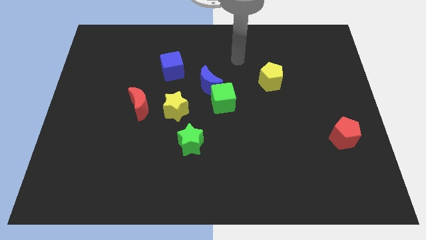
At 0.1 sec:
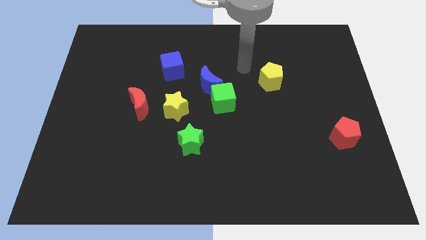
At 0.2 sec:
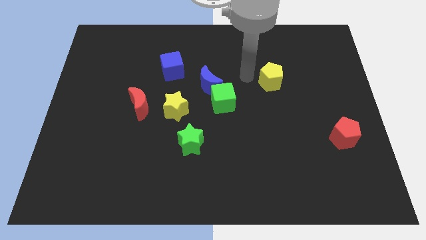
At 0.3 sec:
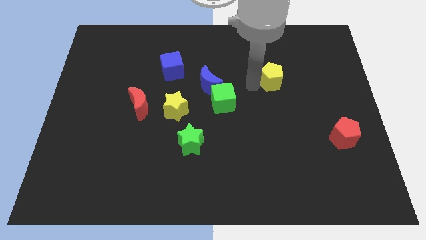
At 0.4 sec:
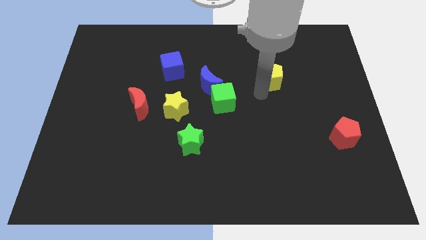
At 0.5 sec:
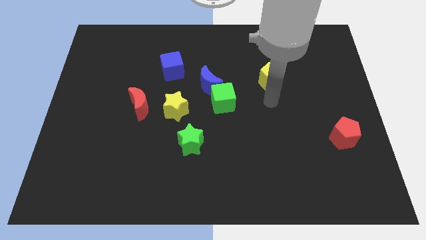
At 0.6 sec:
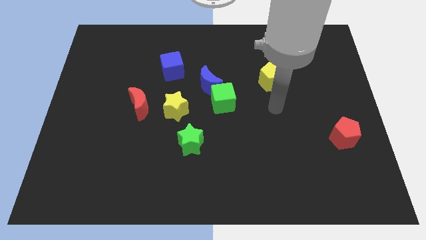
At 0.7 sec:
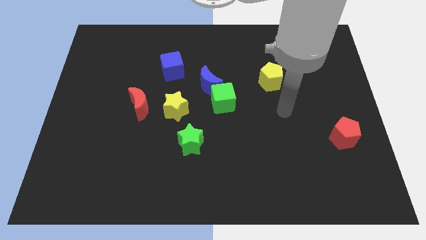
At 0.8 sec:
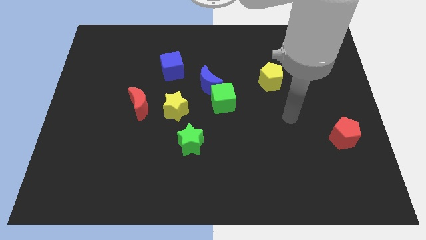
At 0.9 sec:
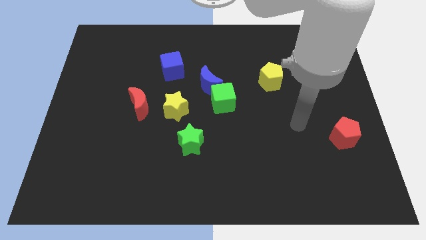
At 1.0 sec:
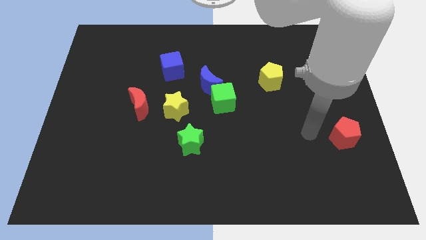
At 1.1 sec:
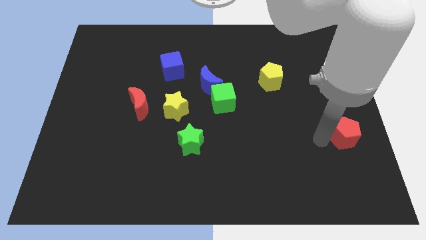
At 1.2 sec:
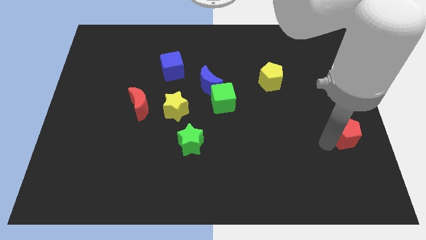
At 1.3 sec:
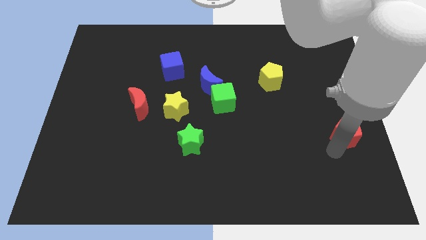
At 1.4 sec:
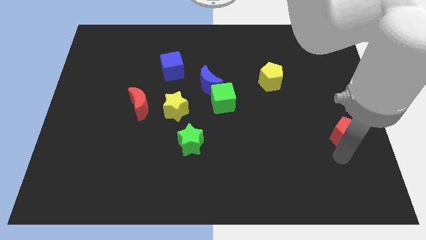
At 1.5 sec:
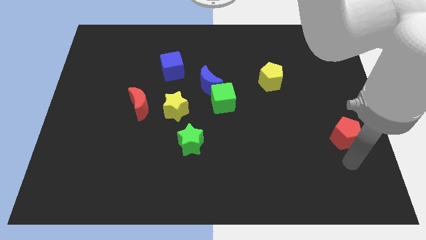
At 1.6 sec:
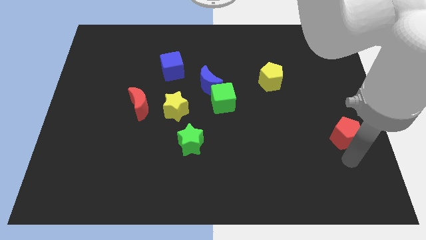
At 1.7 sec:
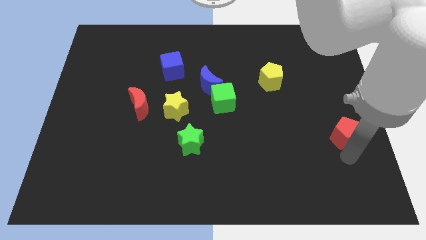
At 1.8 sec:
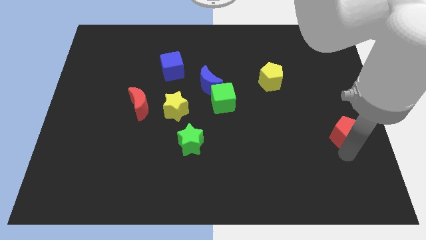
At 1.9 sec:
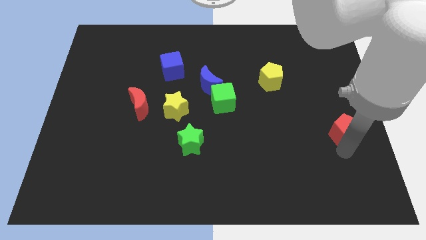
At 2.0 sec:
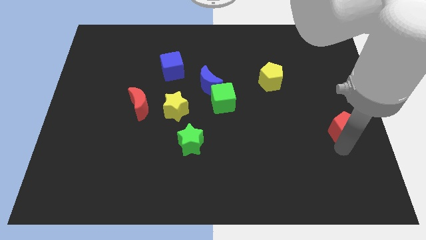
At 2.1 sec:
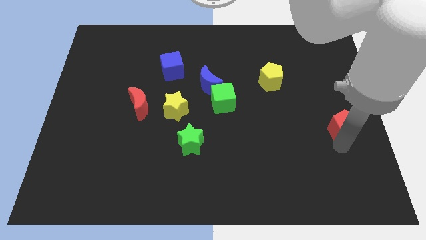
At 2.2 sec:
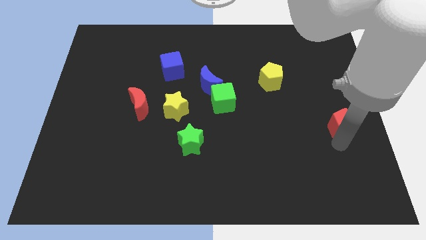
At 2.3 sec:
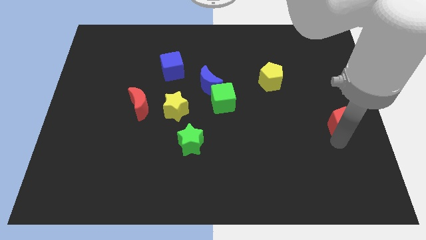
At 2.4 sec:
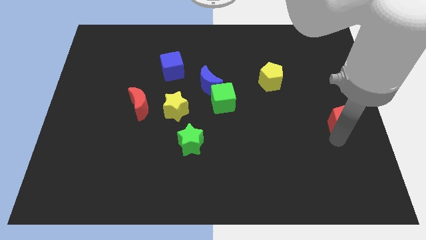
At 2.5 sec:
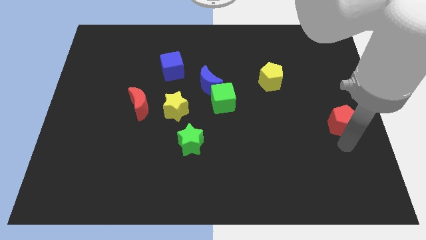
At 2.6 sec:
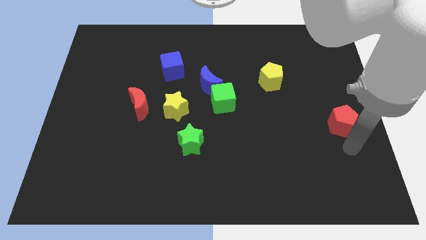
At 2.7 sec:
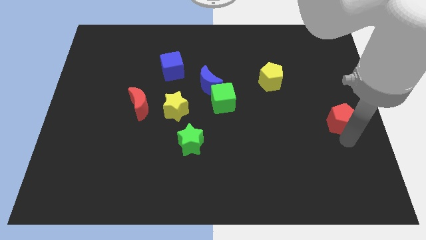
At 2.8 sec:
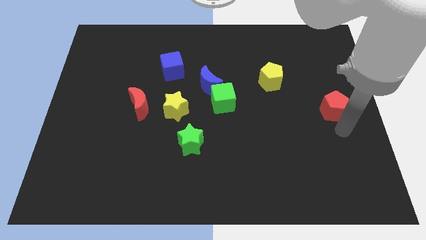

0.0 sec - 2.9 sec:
move the red pentagon a little up

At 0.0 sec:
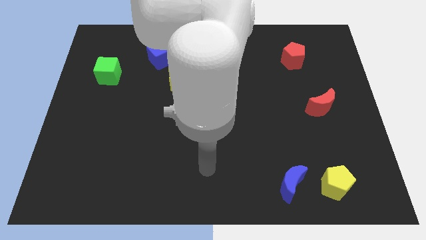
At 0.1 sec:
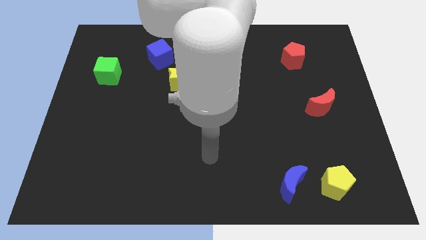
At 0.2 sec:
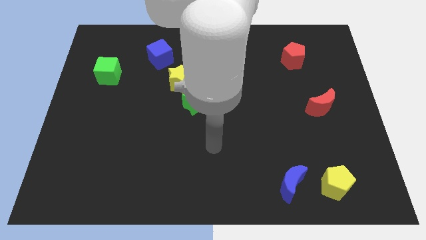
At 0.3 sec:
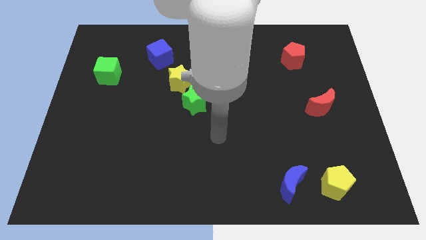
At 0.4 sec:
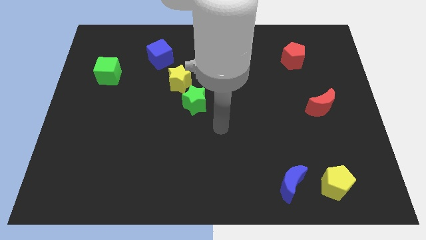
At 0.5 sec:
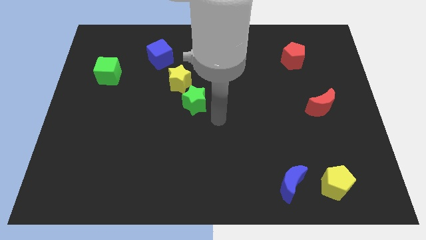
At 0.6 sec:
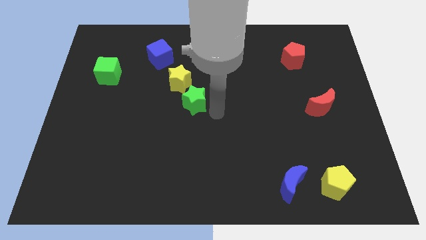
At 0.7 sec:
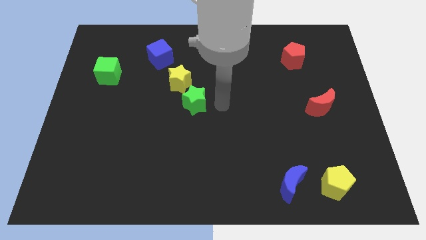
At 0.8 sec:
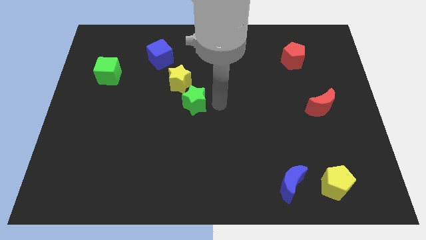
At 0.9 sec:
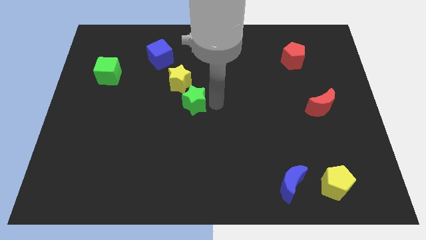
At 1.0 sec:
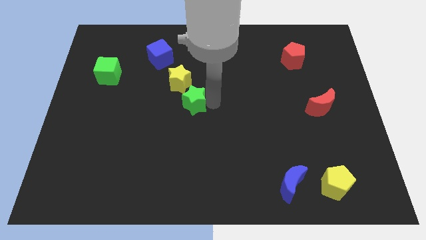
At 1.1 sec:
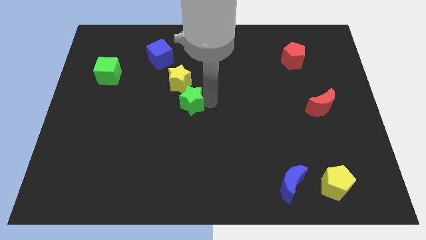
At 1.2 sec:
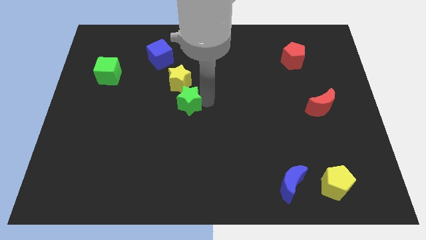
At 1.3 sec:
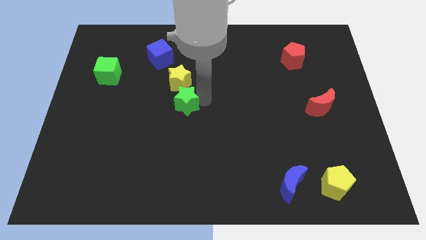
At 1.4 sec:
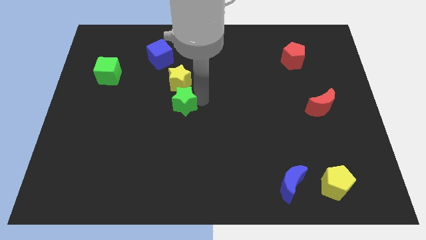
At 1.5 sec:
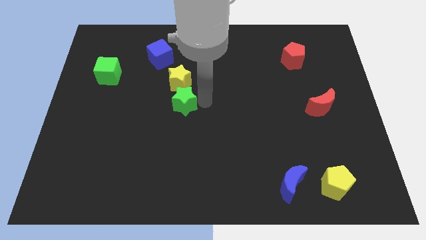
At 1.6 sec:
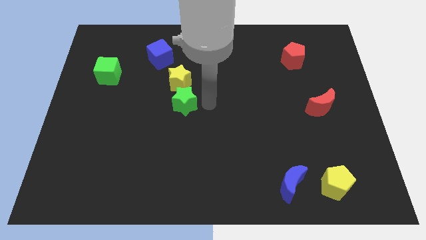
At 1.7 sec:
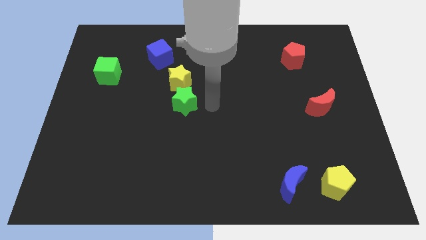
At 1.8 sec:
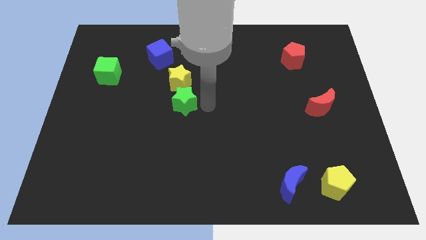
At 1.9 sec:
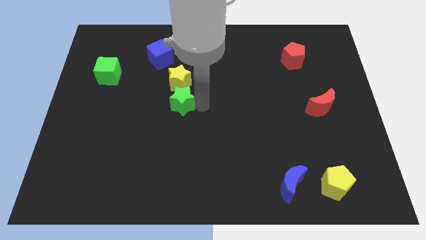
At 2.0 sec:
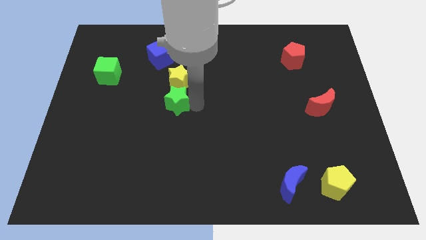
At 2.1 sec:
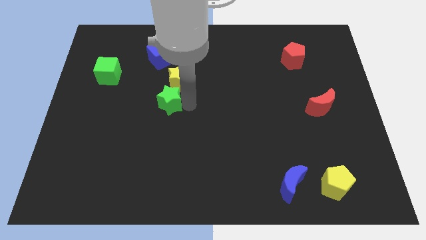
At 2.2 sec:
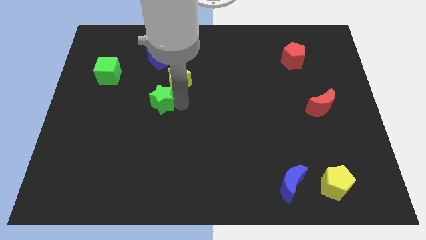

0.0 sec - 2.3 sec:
slightly move the green star left

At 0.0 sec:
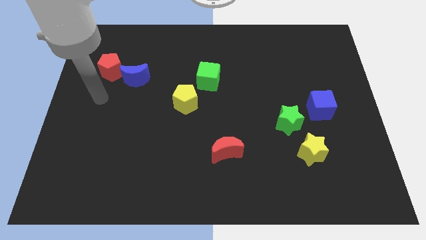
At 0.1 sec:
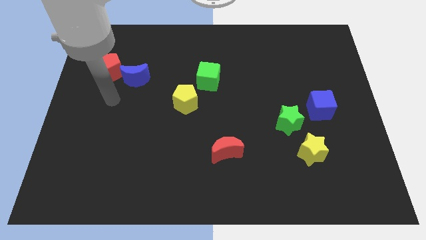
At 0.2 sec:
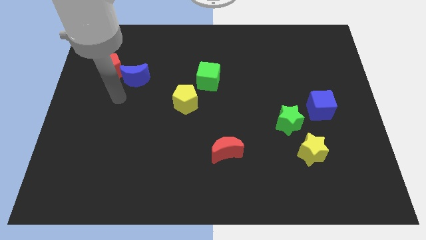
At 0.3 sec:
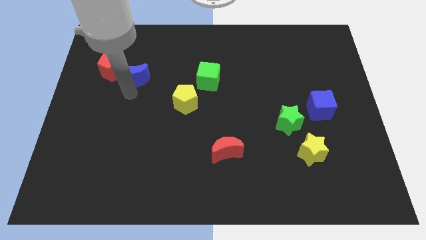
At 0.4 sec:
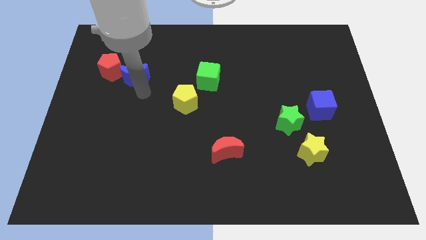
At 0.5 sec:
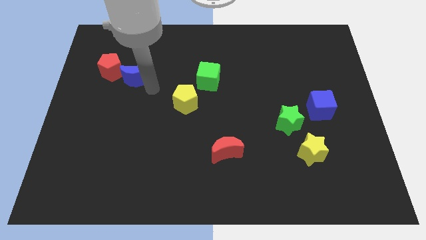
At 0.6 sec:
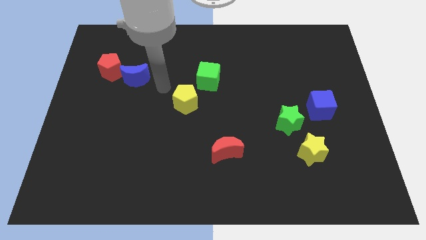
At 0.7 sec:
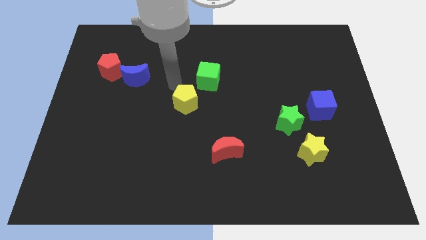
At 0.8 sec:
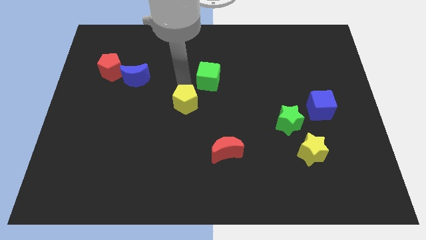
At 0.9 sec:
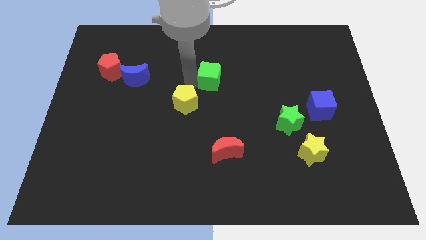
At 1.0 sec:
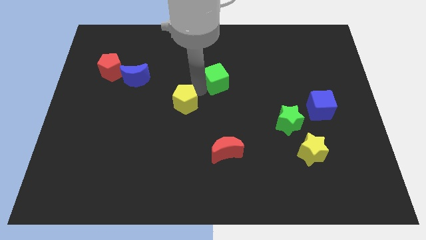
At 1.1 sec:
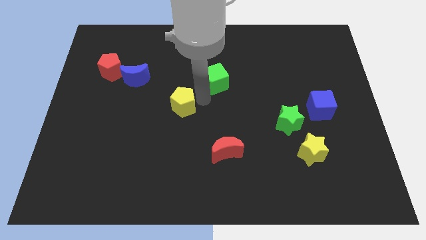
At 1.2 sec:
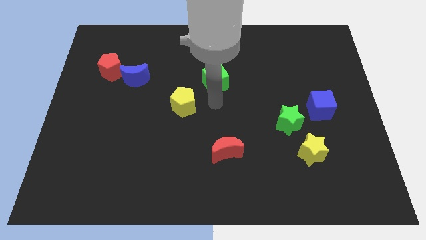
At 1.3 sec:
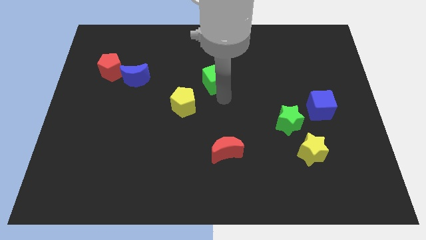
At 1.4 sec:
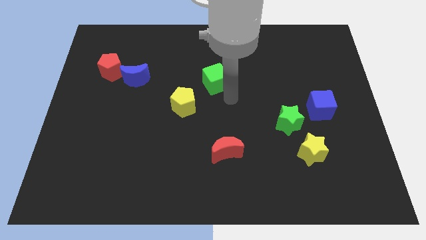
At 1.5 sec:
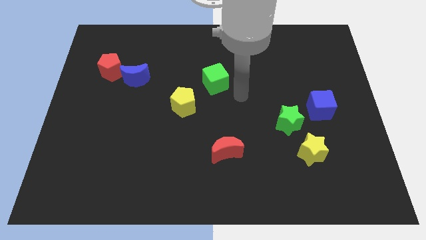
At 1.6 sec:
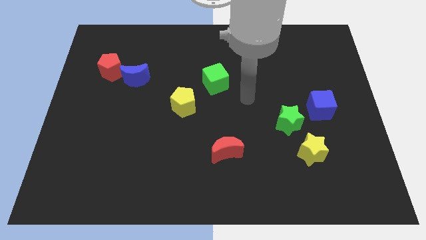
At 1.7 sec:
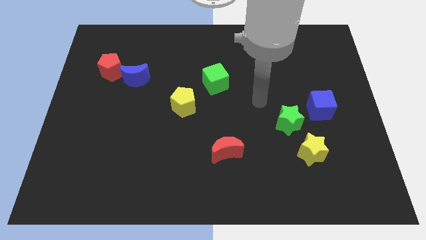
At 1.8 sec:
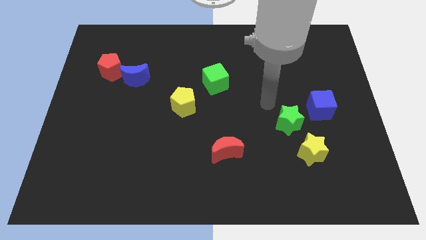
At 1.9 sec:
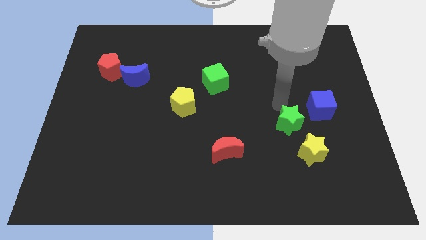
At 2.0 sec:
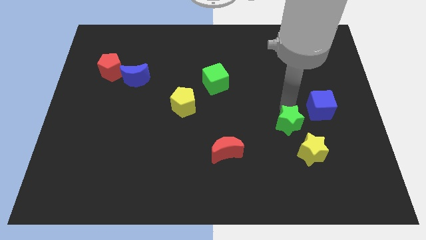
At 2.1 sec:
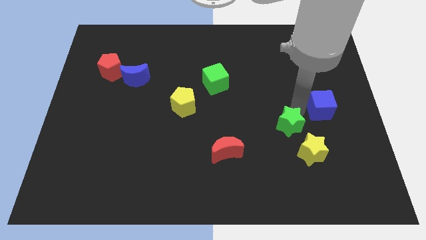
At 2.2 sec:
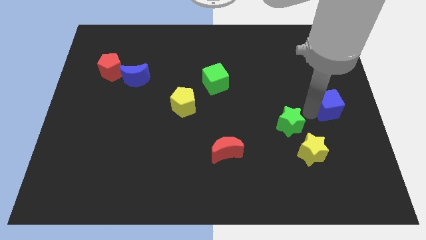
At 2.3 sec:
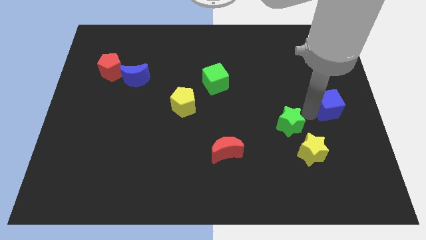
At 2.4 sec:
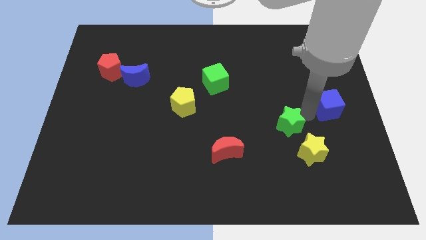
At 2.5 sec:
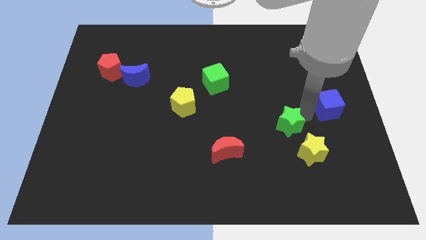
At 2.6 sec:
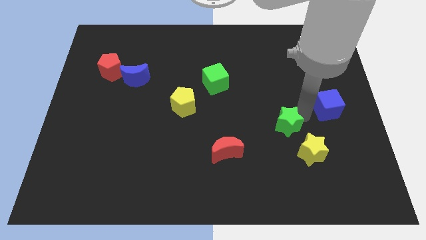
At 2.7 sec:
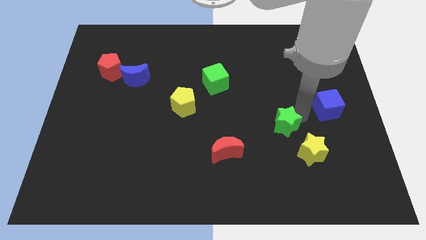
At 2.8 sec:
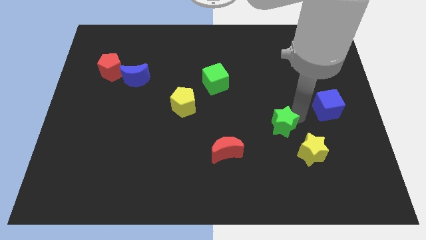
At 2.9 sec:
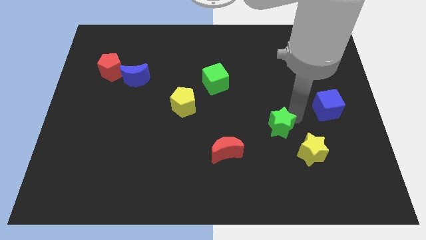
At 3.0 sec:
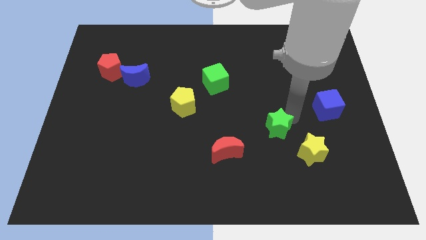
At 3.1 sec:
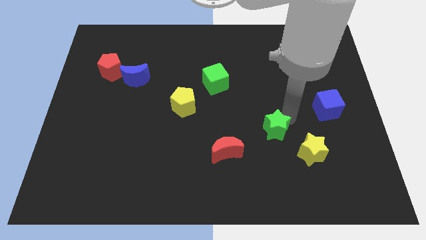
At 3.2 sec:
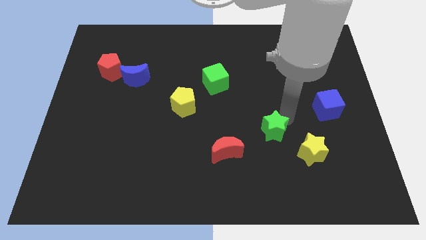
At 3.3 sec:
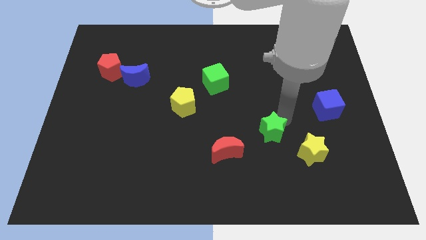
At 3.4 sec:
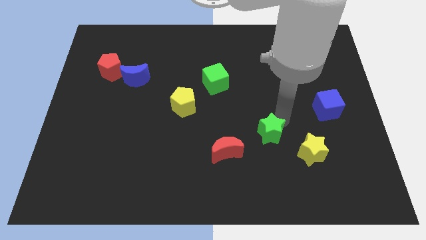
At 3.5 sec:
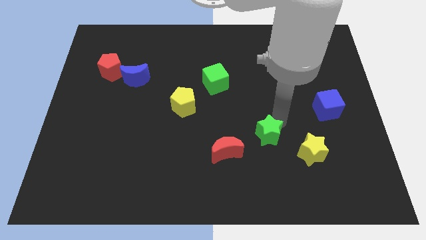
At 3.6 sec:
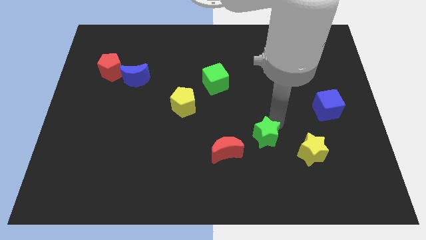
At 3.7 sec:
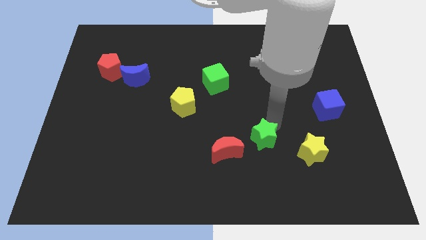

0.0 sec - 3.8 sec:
slide the green star downwards and to the left slightly
